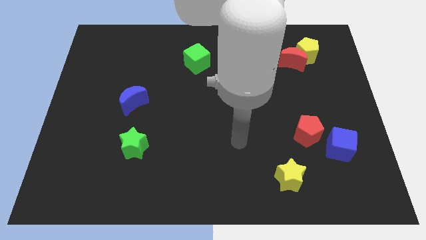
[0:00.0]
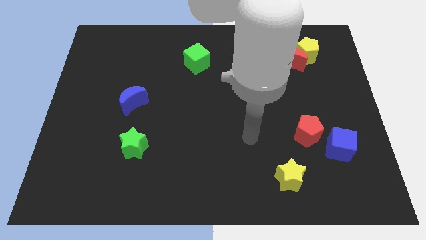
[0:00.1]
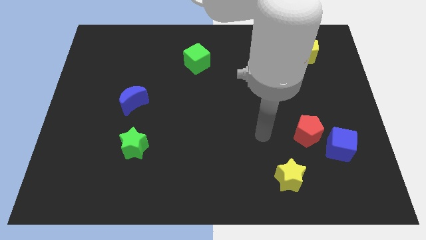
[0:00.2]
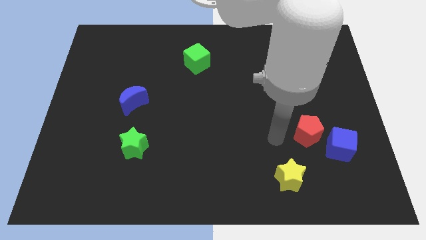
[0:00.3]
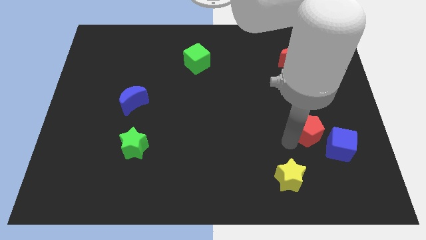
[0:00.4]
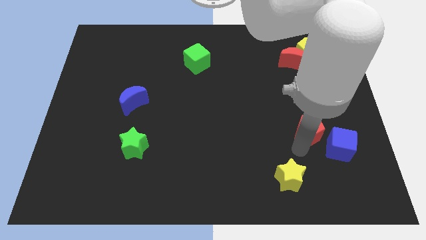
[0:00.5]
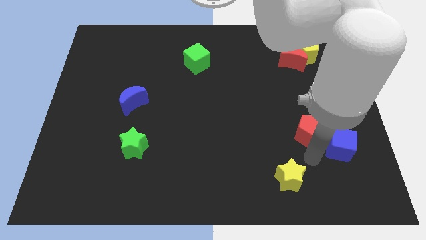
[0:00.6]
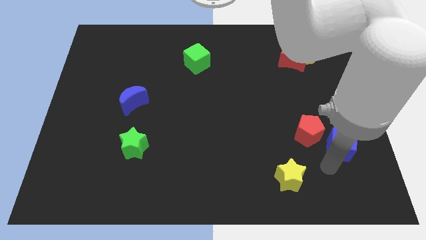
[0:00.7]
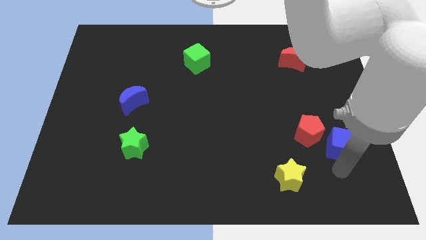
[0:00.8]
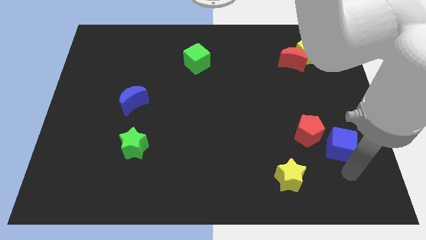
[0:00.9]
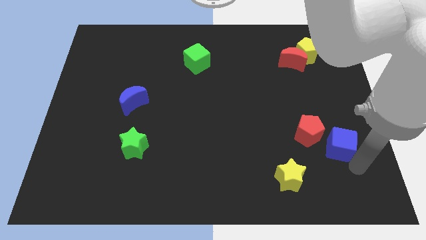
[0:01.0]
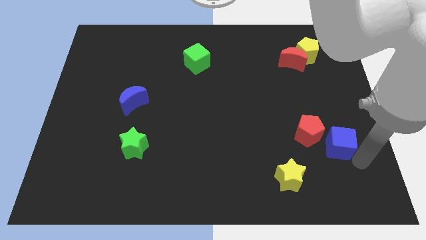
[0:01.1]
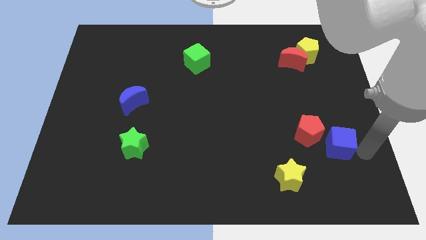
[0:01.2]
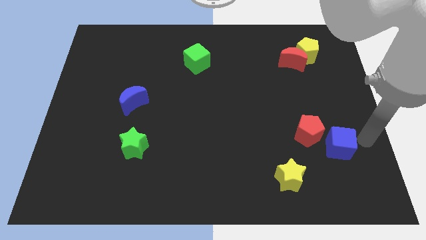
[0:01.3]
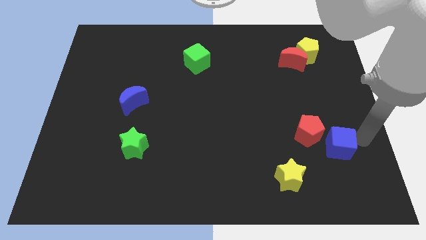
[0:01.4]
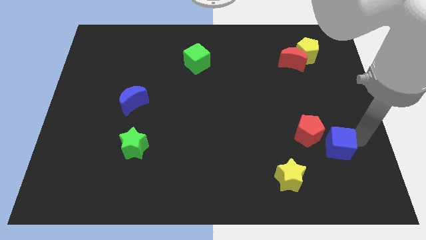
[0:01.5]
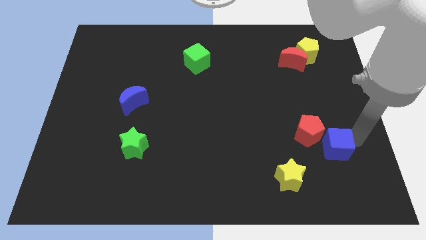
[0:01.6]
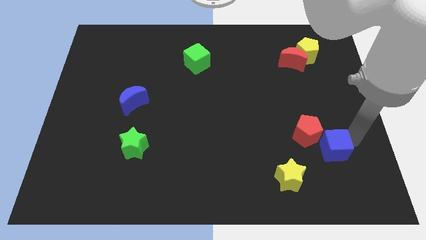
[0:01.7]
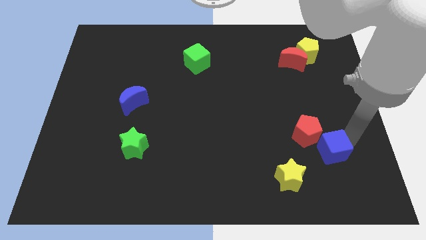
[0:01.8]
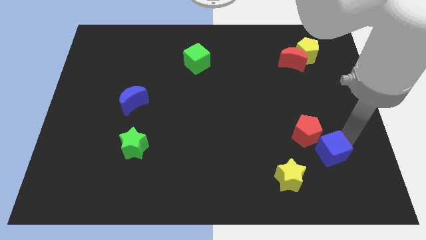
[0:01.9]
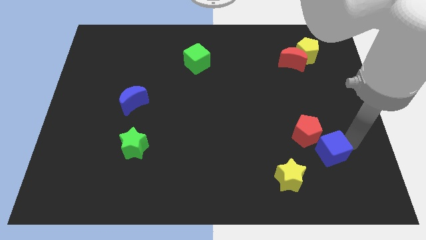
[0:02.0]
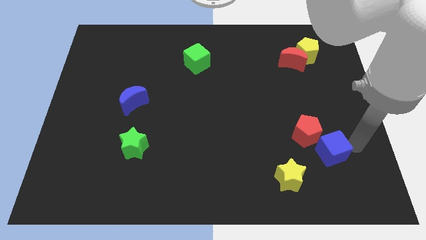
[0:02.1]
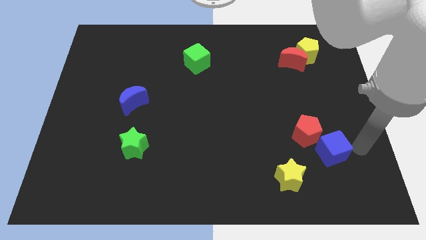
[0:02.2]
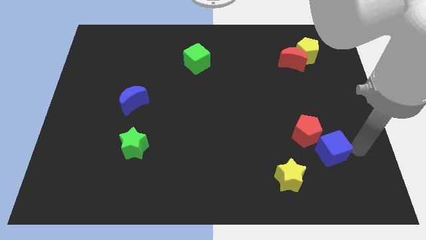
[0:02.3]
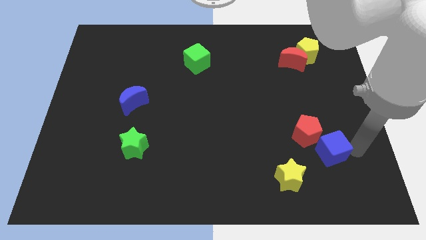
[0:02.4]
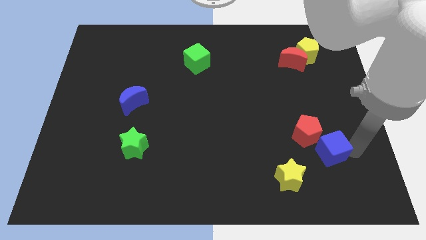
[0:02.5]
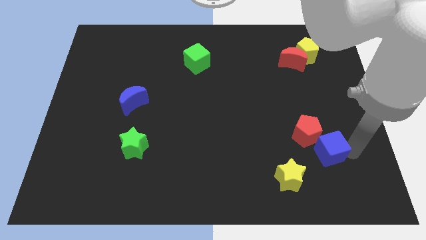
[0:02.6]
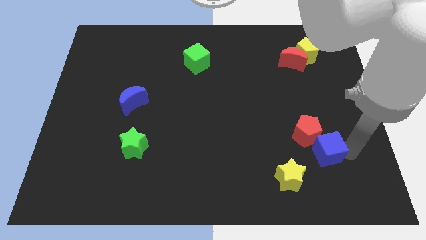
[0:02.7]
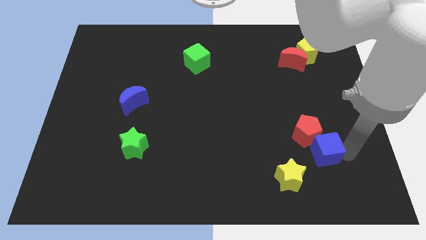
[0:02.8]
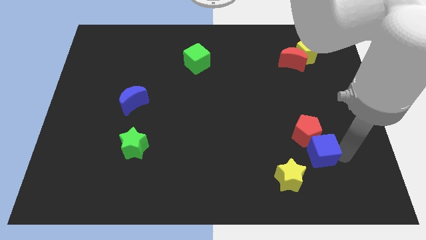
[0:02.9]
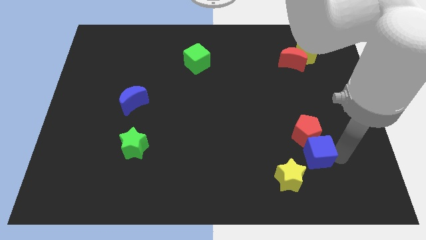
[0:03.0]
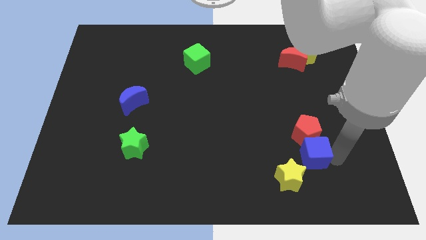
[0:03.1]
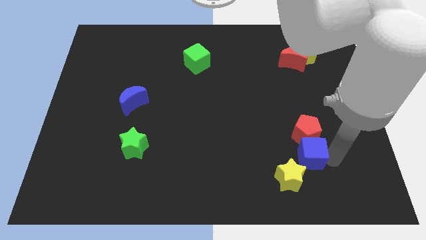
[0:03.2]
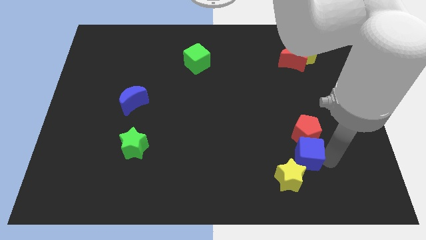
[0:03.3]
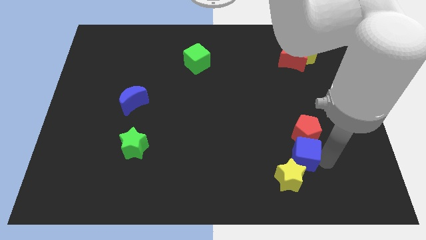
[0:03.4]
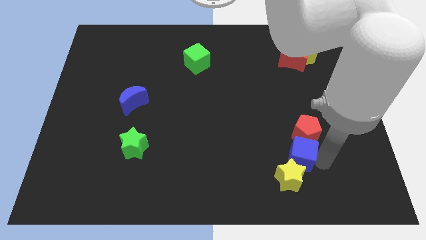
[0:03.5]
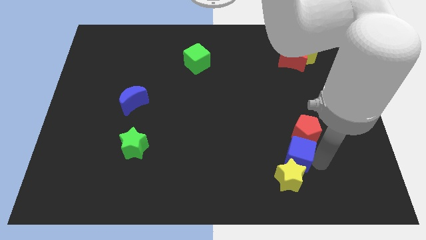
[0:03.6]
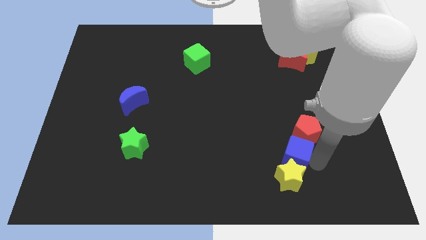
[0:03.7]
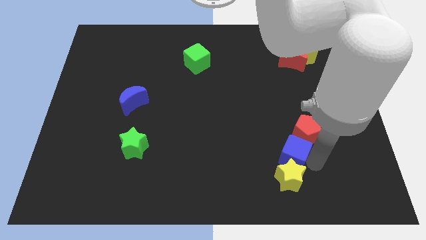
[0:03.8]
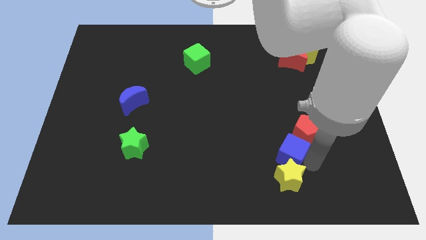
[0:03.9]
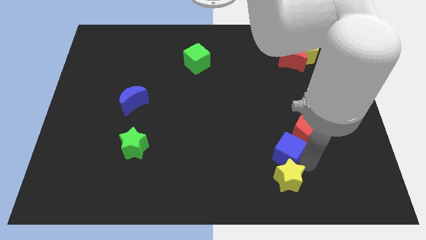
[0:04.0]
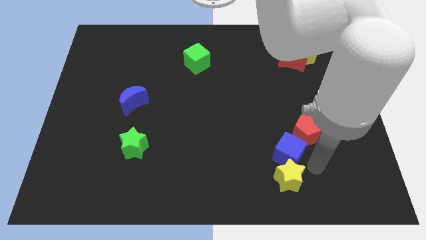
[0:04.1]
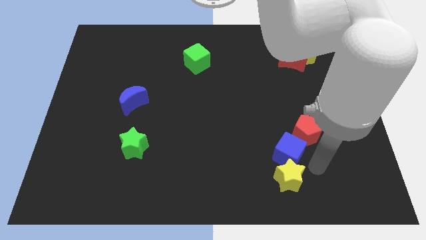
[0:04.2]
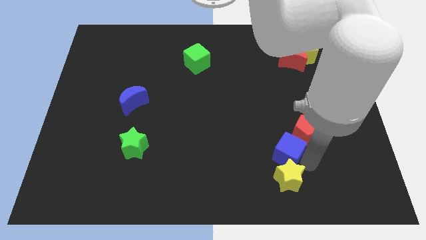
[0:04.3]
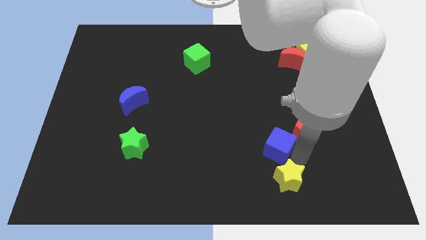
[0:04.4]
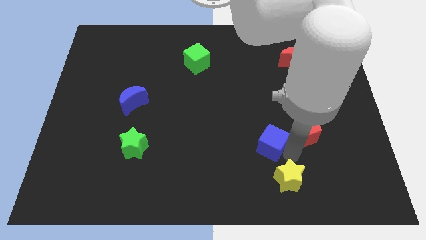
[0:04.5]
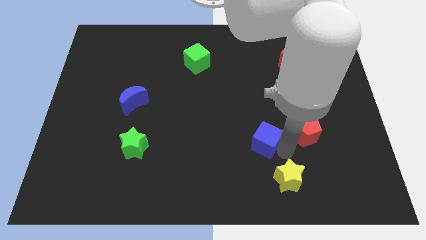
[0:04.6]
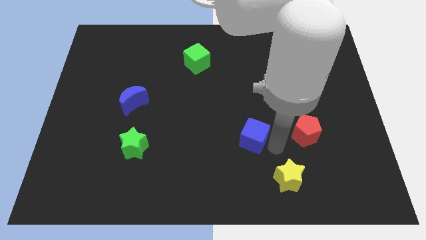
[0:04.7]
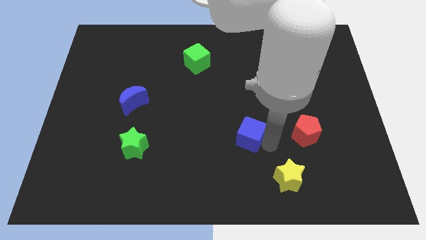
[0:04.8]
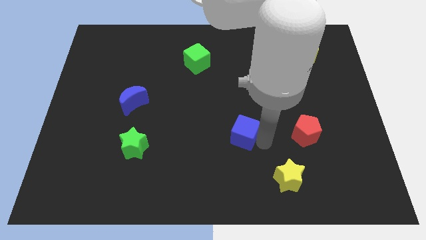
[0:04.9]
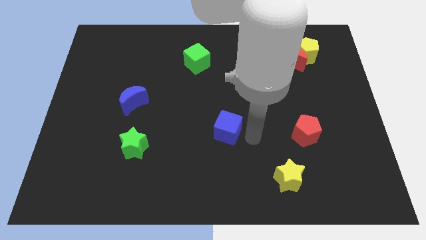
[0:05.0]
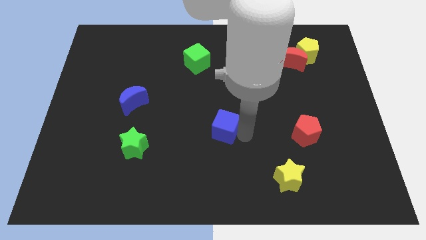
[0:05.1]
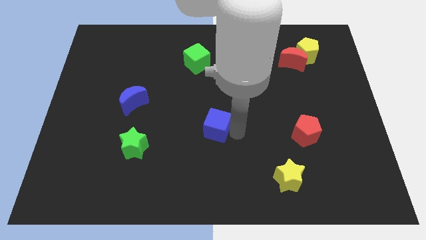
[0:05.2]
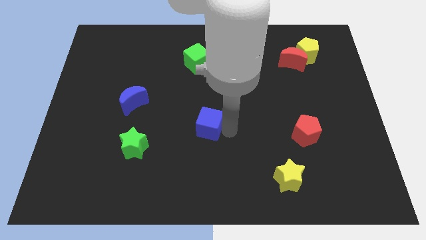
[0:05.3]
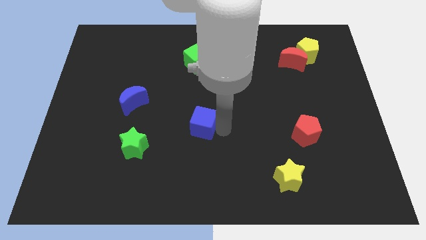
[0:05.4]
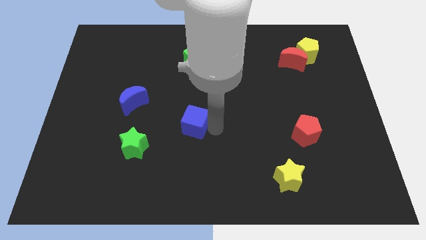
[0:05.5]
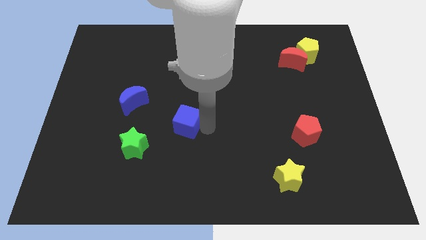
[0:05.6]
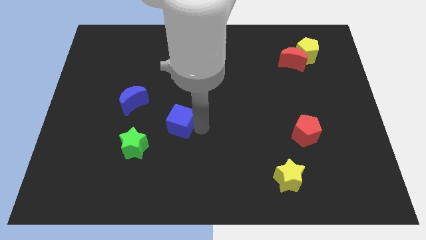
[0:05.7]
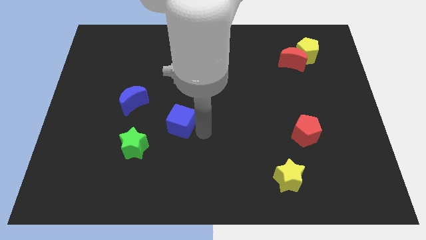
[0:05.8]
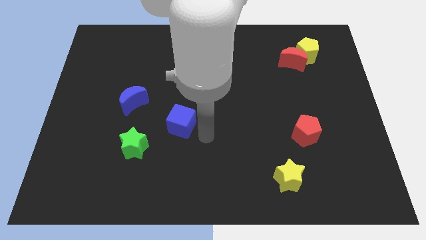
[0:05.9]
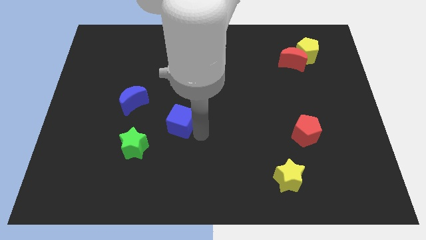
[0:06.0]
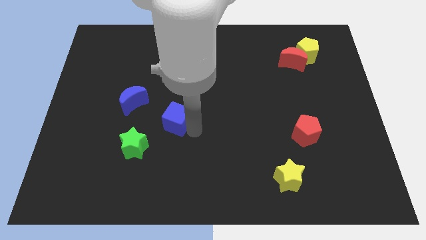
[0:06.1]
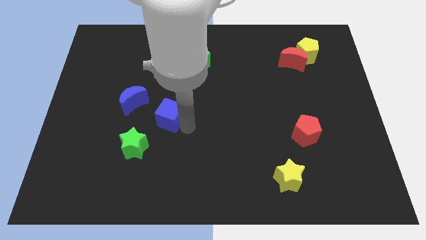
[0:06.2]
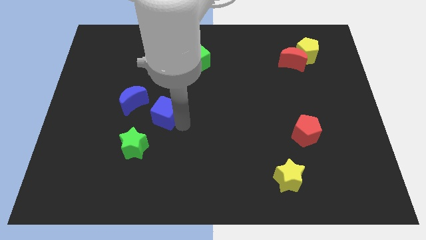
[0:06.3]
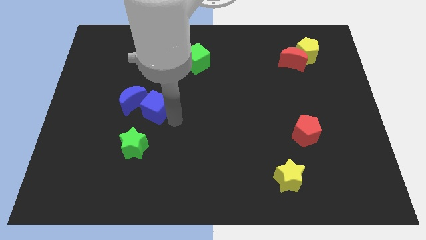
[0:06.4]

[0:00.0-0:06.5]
move the blue cube to the blue moon

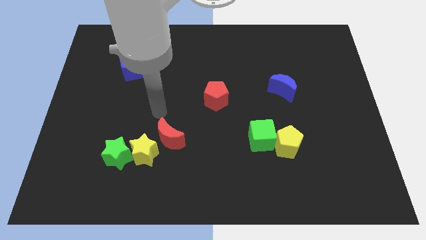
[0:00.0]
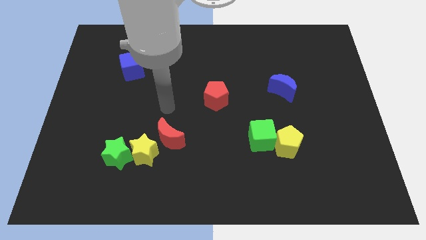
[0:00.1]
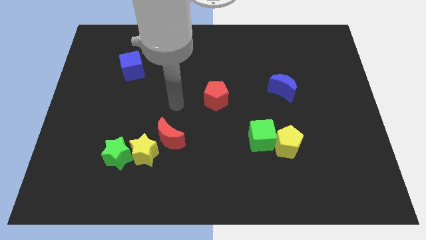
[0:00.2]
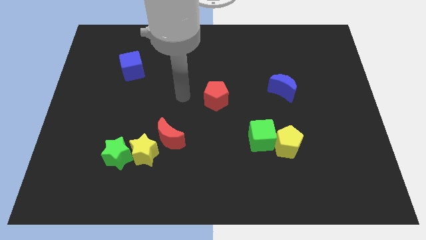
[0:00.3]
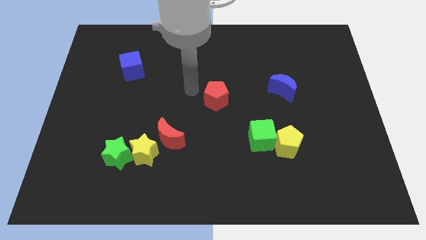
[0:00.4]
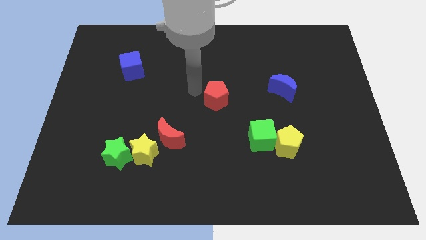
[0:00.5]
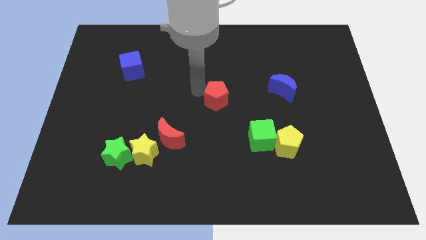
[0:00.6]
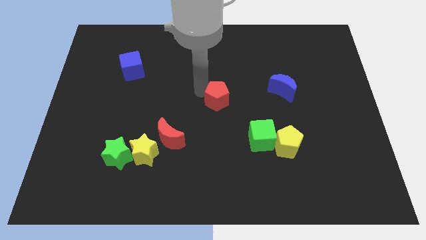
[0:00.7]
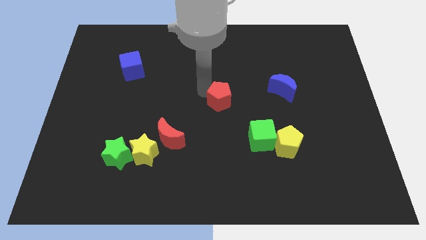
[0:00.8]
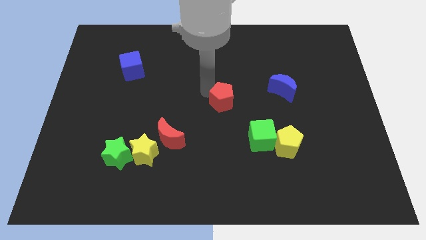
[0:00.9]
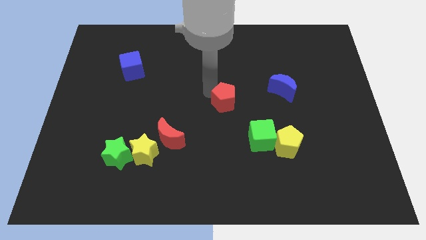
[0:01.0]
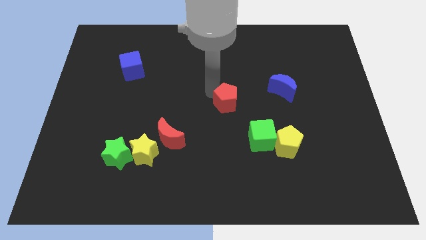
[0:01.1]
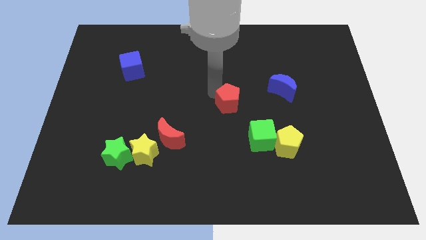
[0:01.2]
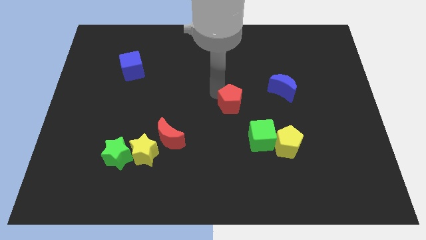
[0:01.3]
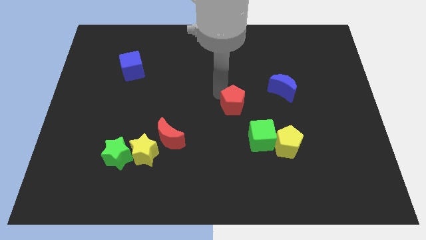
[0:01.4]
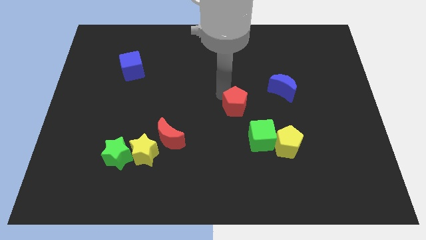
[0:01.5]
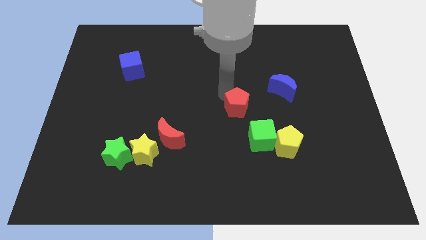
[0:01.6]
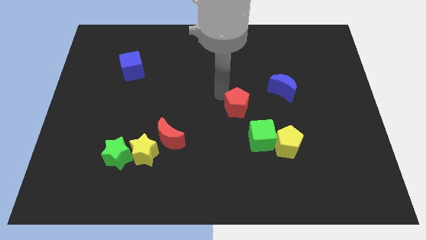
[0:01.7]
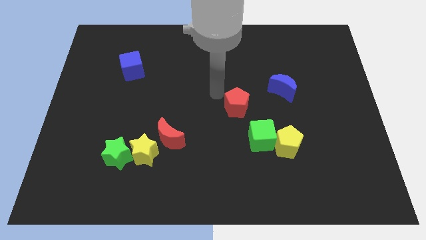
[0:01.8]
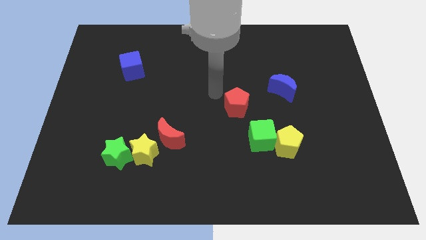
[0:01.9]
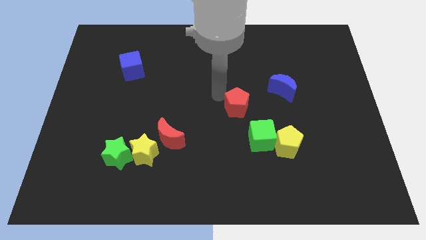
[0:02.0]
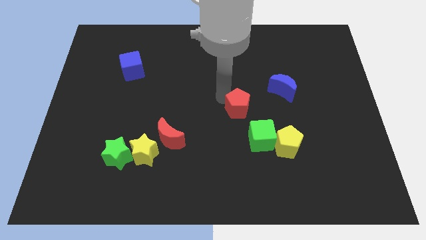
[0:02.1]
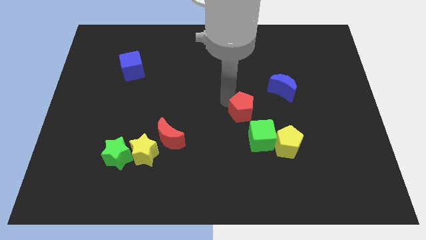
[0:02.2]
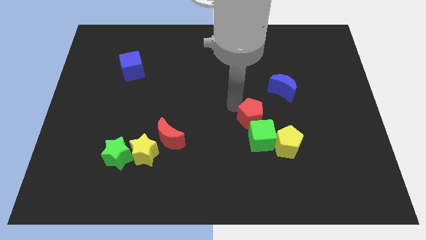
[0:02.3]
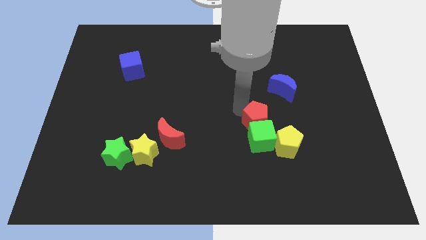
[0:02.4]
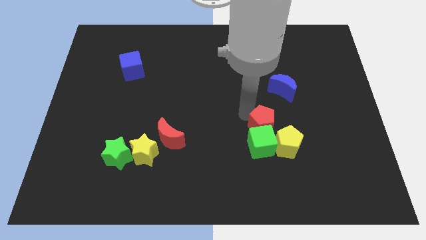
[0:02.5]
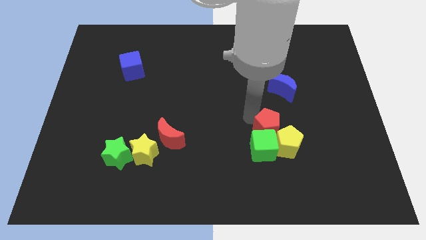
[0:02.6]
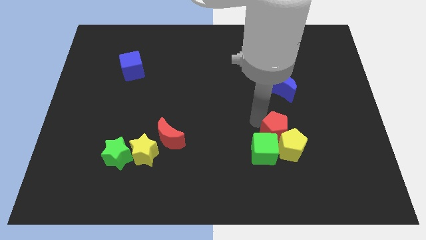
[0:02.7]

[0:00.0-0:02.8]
put the red pentagon close to the yellow pentagon
